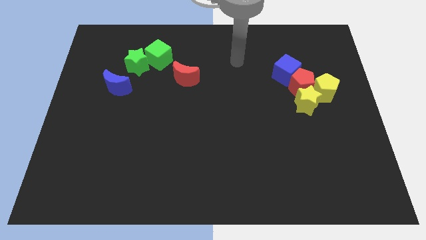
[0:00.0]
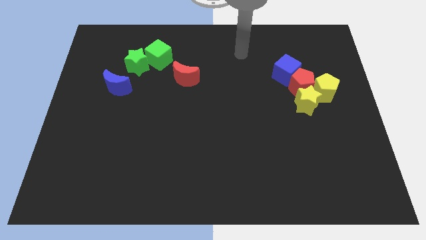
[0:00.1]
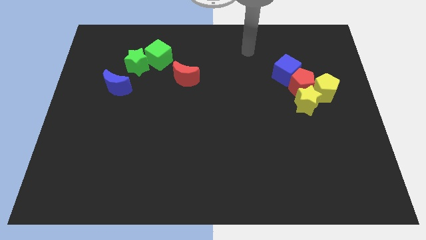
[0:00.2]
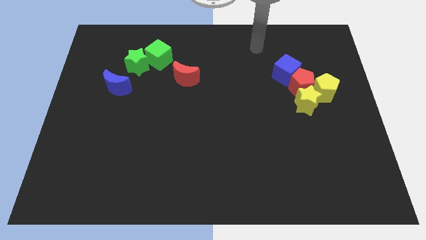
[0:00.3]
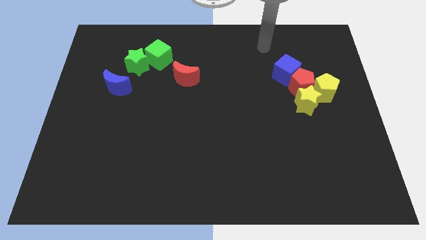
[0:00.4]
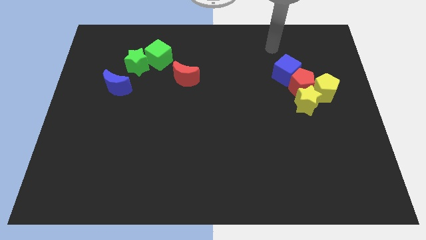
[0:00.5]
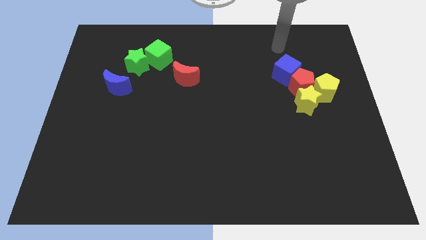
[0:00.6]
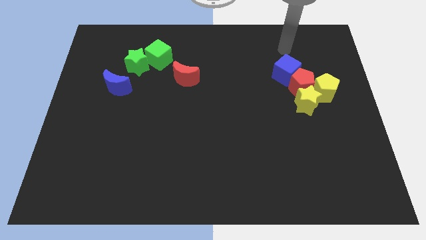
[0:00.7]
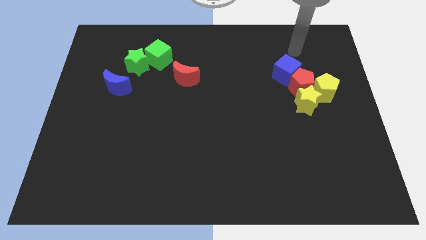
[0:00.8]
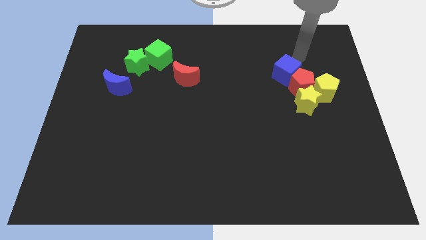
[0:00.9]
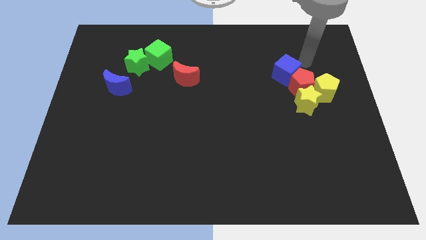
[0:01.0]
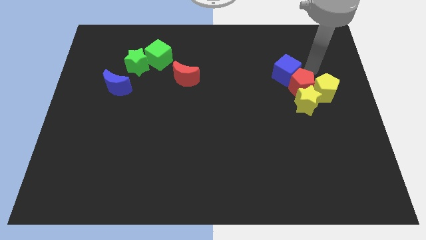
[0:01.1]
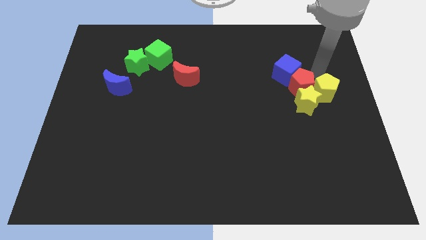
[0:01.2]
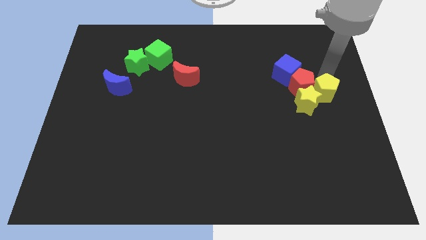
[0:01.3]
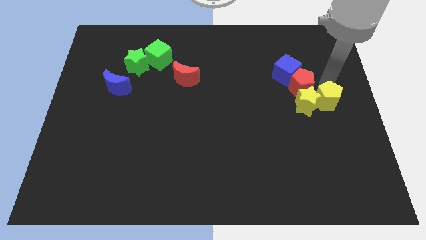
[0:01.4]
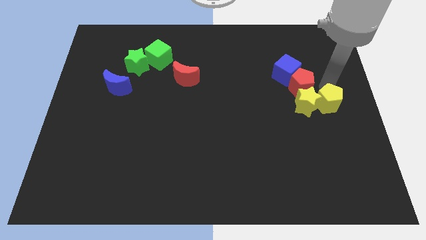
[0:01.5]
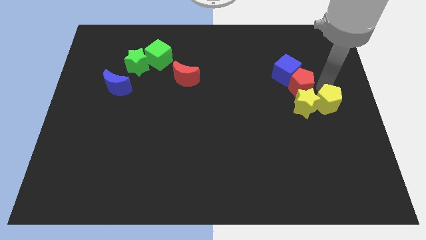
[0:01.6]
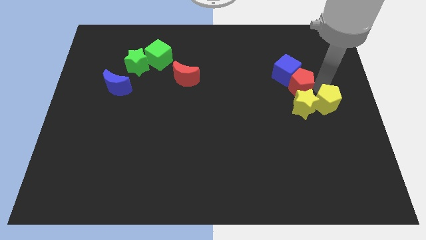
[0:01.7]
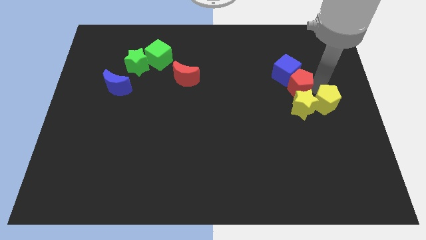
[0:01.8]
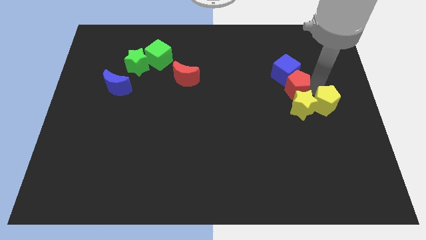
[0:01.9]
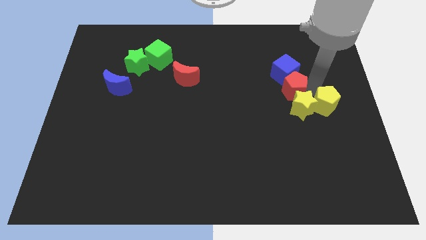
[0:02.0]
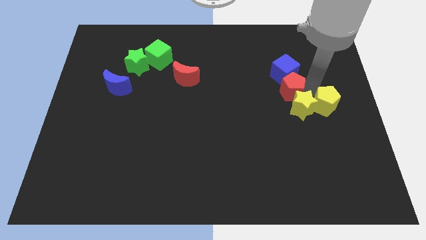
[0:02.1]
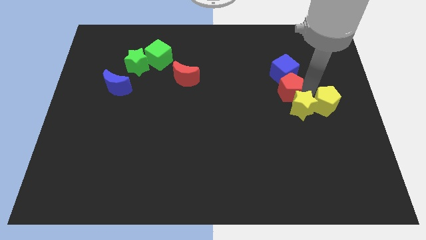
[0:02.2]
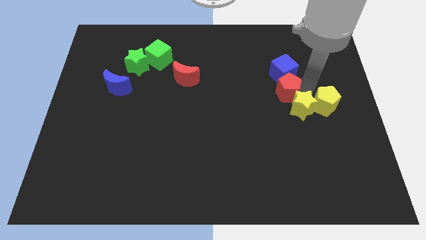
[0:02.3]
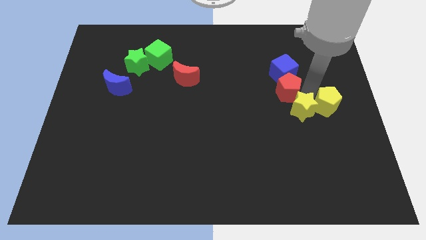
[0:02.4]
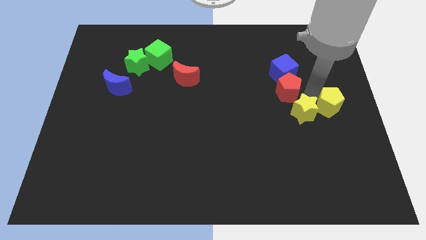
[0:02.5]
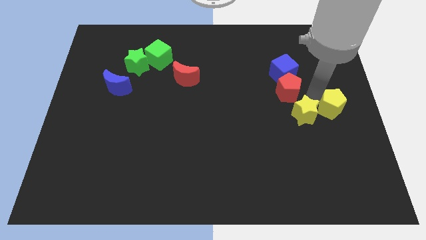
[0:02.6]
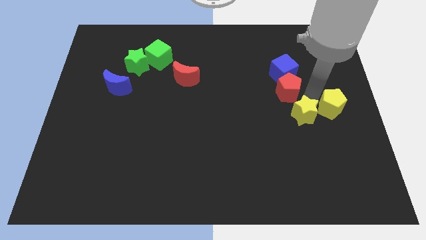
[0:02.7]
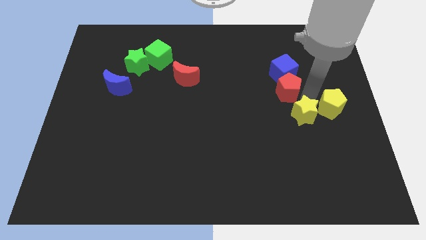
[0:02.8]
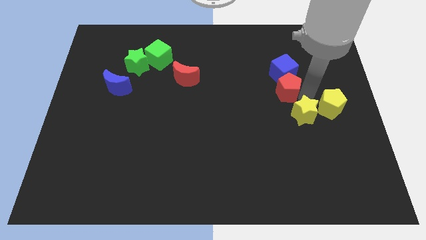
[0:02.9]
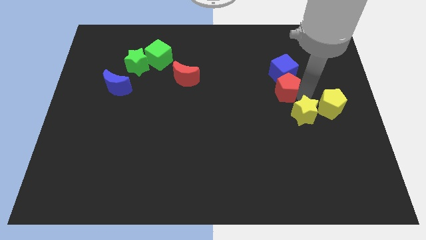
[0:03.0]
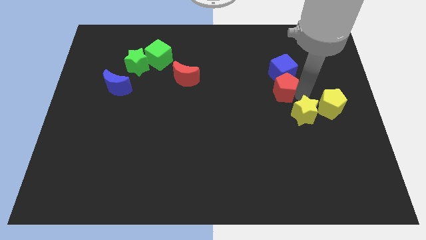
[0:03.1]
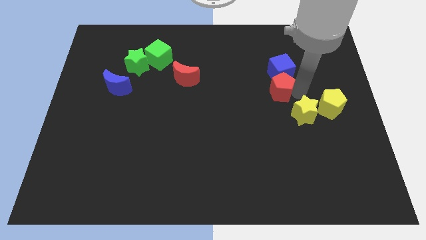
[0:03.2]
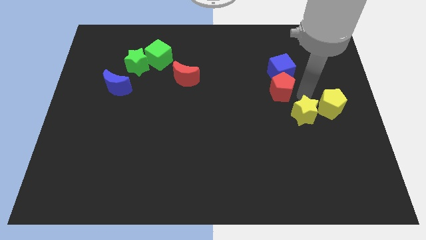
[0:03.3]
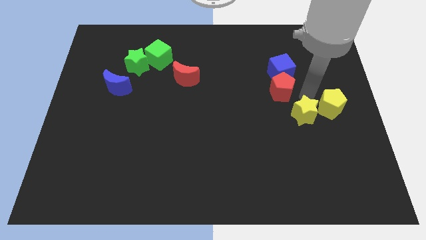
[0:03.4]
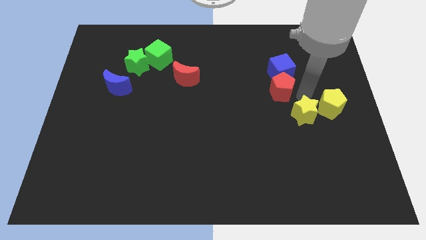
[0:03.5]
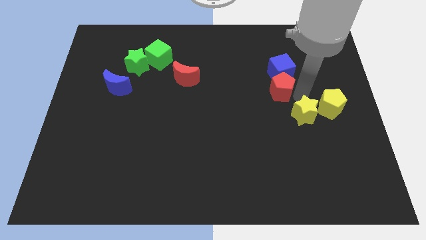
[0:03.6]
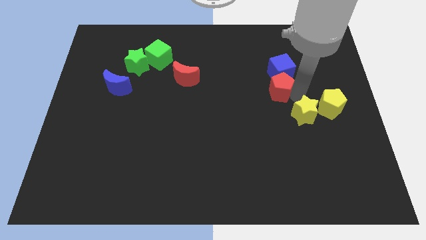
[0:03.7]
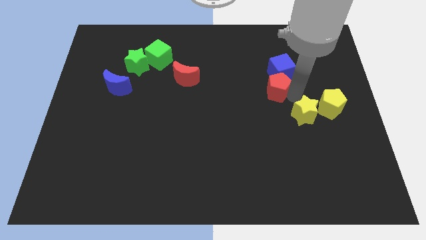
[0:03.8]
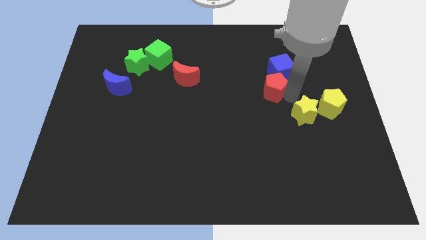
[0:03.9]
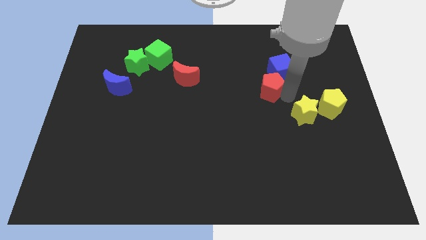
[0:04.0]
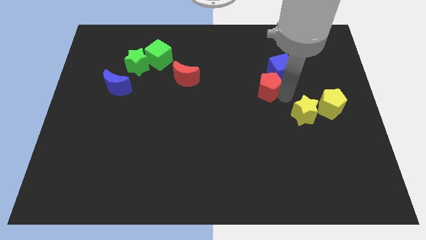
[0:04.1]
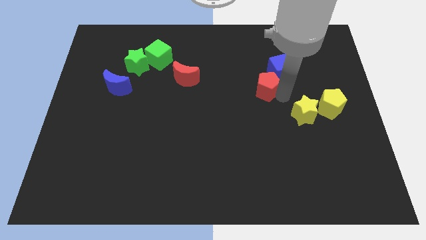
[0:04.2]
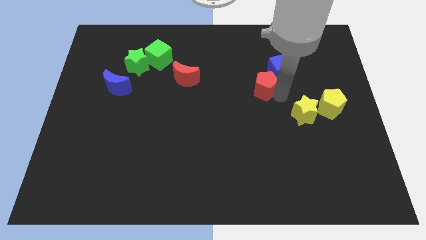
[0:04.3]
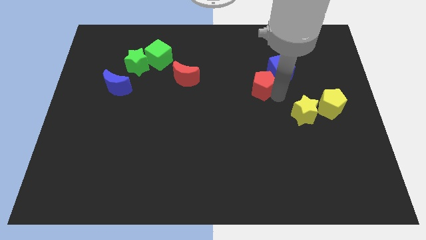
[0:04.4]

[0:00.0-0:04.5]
pull the red pentagon apart from the group of blocks

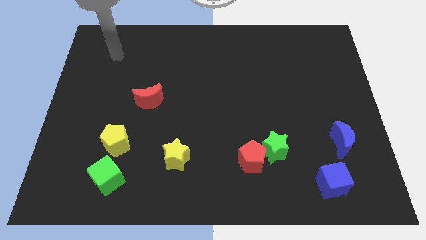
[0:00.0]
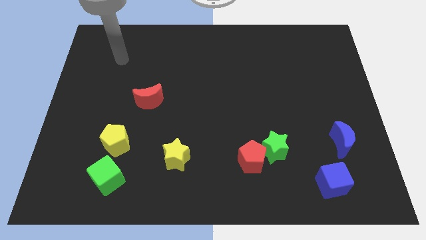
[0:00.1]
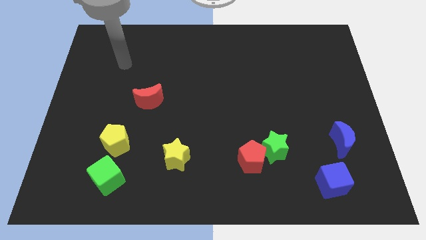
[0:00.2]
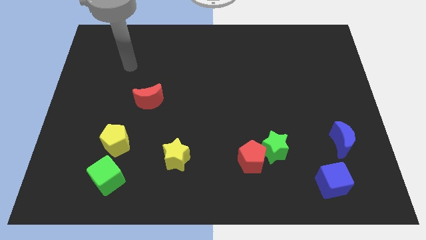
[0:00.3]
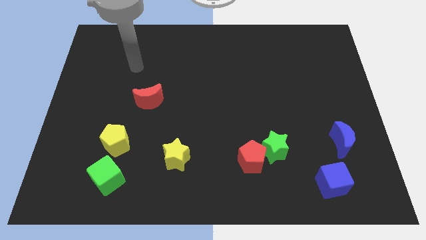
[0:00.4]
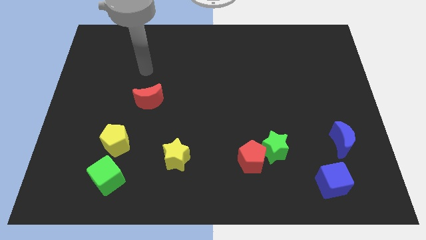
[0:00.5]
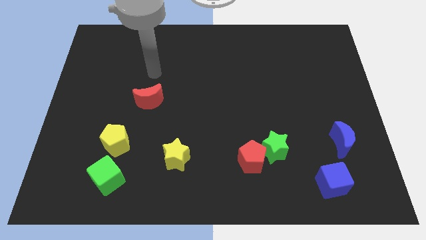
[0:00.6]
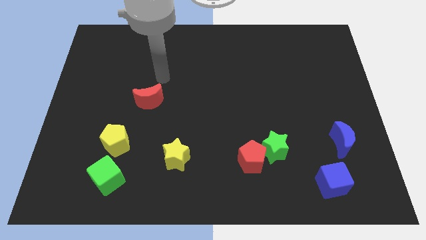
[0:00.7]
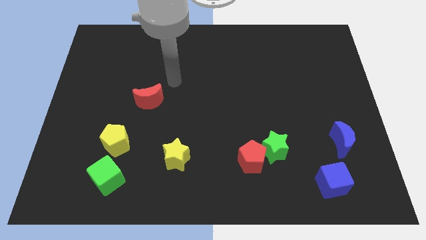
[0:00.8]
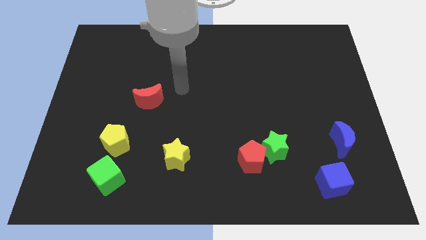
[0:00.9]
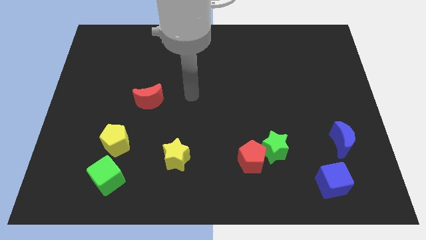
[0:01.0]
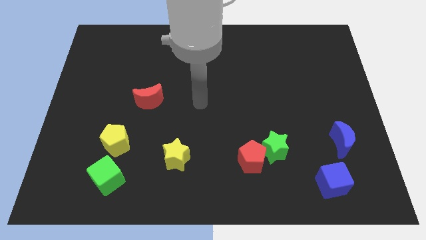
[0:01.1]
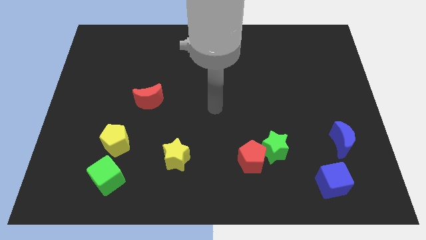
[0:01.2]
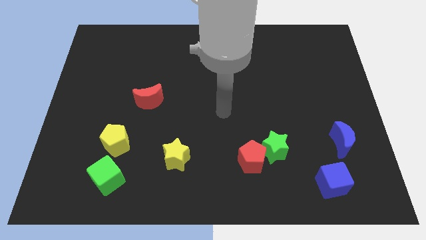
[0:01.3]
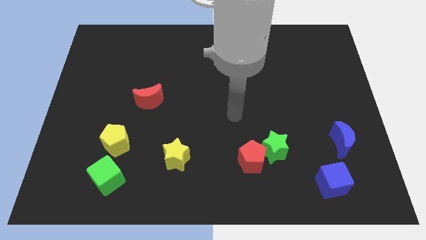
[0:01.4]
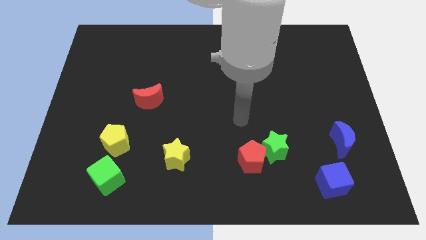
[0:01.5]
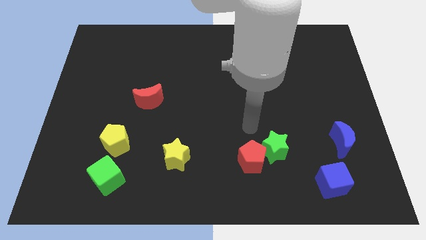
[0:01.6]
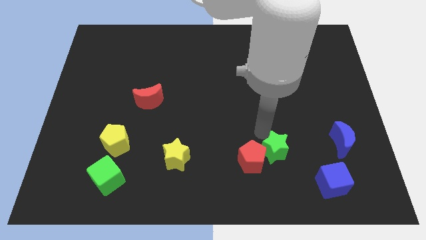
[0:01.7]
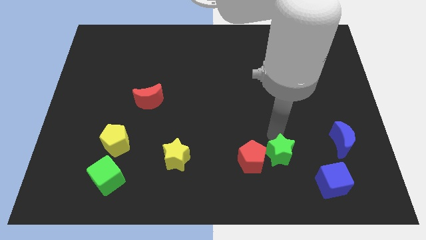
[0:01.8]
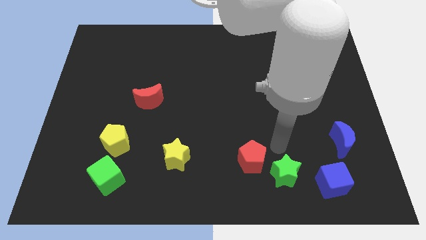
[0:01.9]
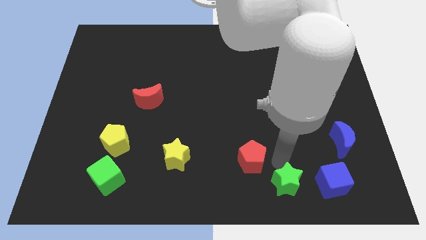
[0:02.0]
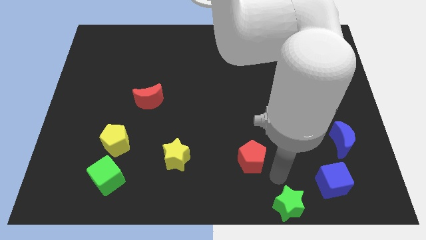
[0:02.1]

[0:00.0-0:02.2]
separate the red pentagon from the green star

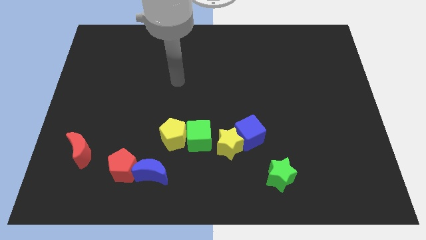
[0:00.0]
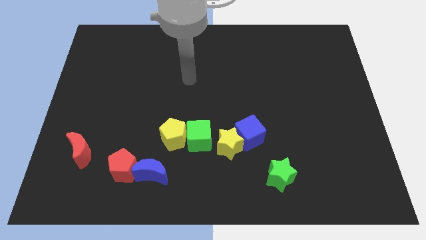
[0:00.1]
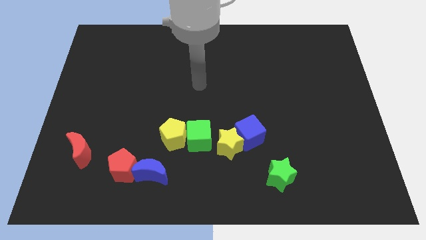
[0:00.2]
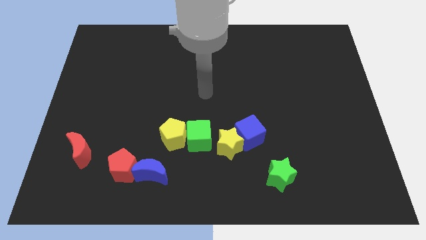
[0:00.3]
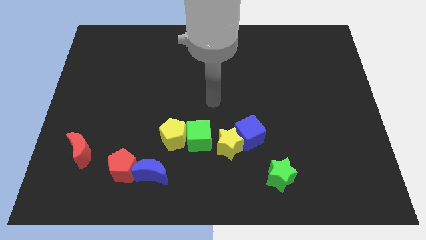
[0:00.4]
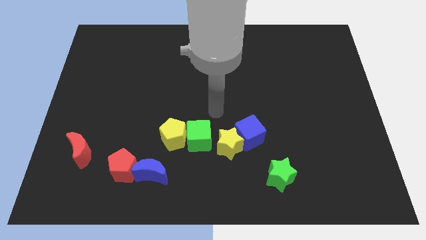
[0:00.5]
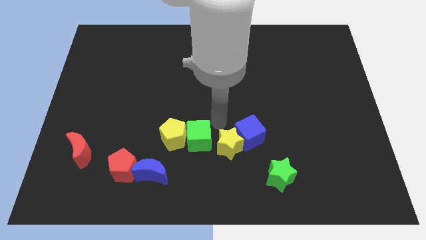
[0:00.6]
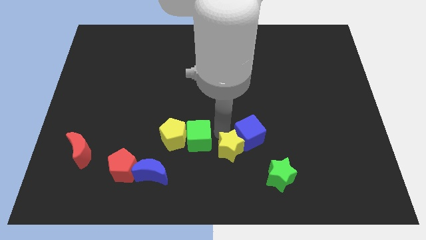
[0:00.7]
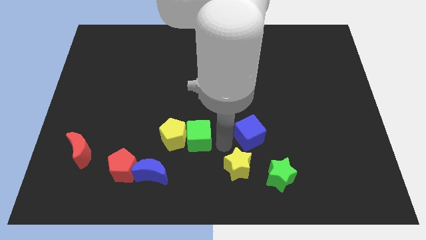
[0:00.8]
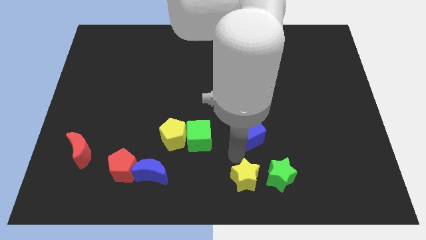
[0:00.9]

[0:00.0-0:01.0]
pull the blue cube apart from the yellow star

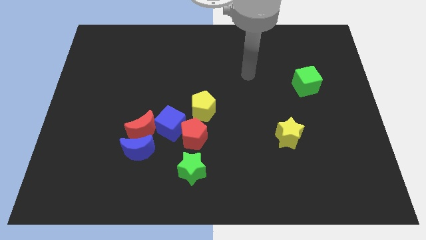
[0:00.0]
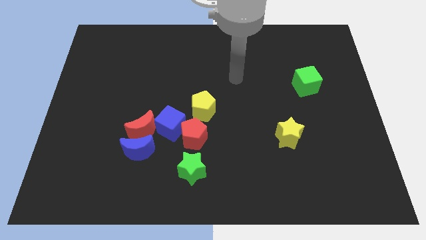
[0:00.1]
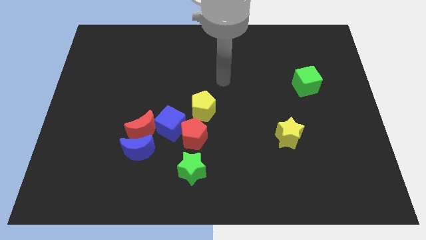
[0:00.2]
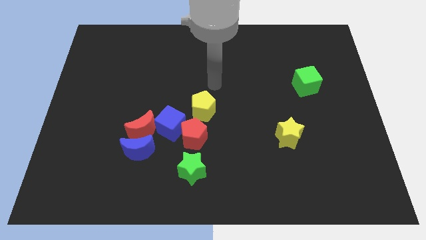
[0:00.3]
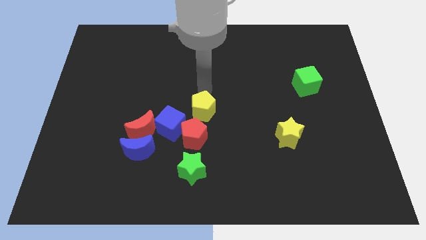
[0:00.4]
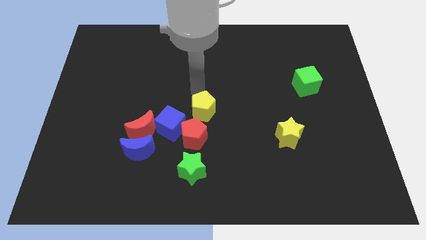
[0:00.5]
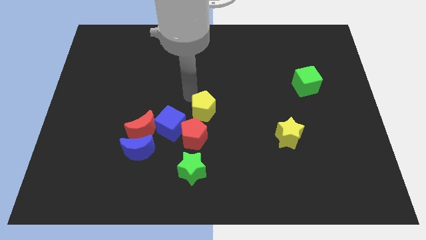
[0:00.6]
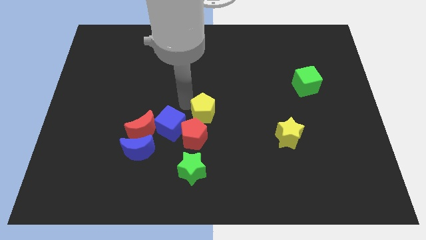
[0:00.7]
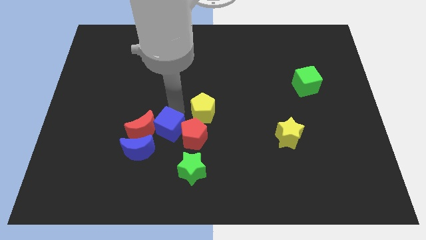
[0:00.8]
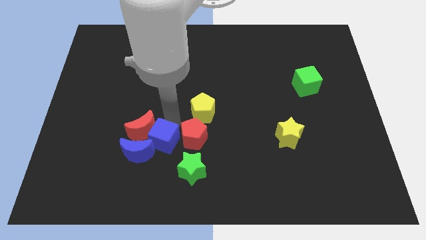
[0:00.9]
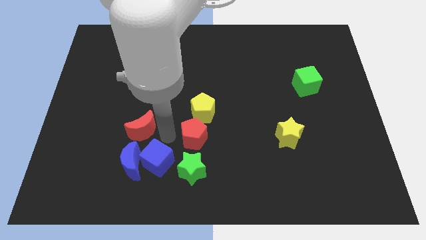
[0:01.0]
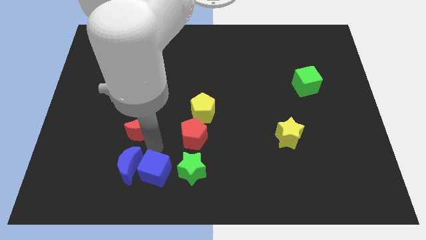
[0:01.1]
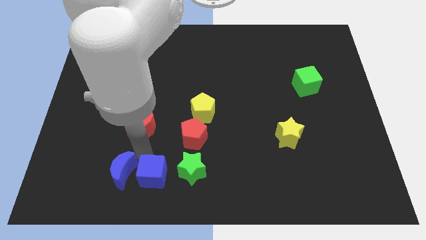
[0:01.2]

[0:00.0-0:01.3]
pull the red moon apart from the blue moon and blue cube

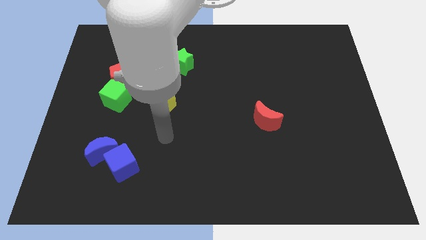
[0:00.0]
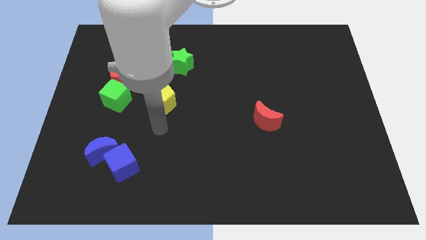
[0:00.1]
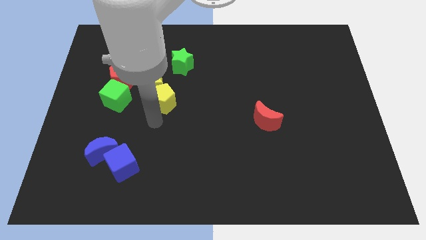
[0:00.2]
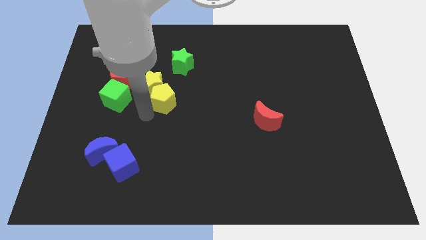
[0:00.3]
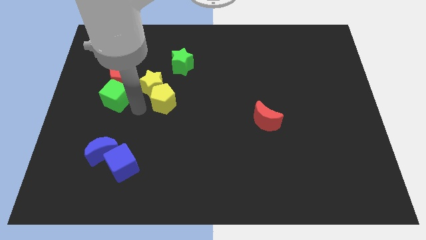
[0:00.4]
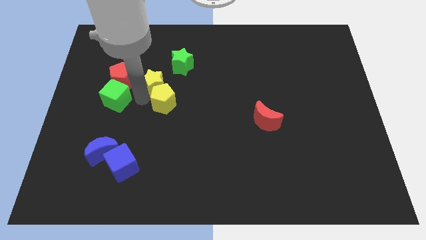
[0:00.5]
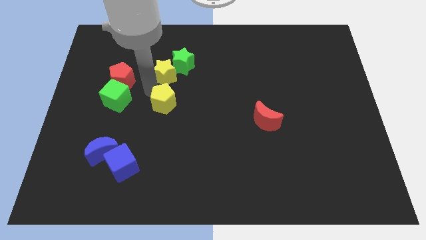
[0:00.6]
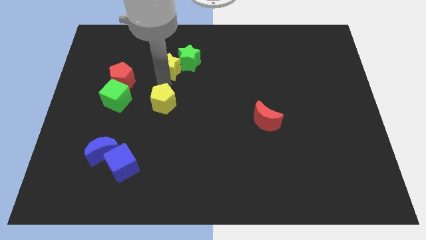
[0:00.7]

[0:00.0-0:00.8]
move the yellow pentagon away from the yellow star
